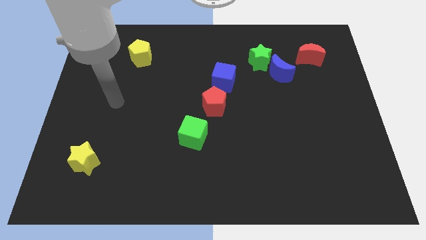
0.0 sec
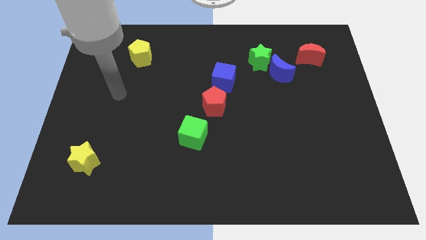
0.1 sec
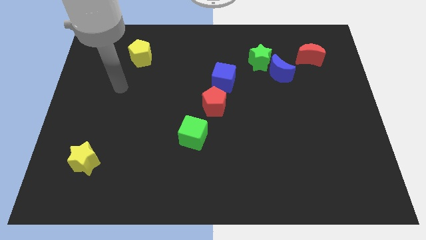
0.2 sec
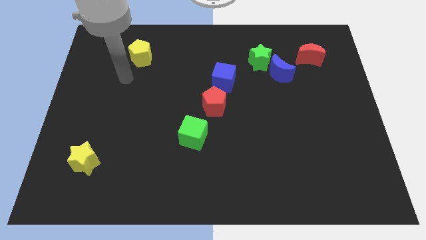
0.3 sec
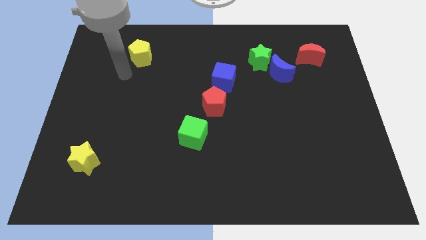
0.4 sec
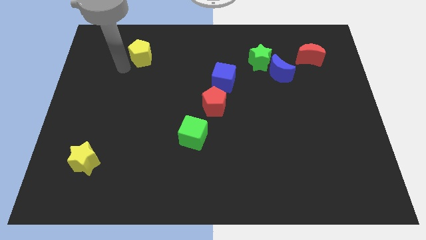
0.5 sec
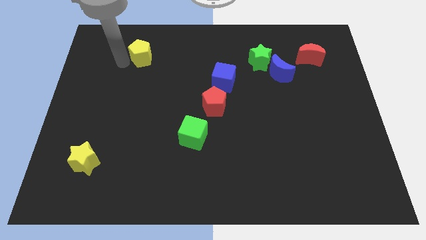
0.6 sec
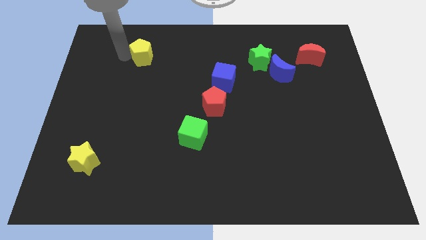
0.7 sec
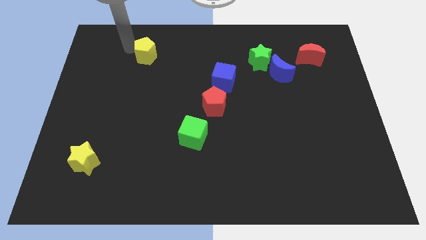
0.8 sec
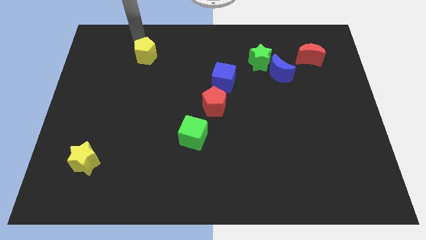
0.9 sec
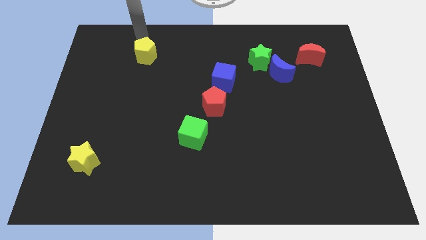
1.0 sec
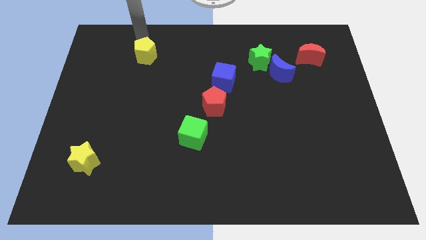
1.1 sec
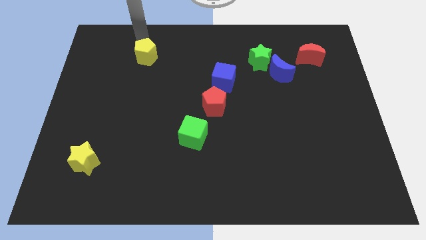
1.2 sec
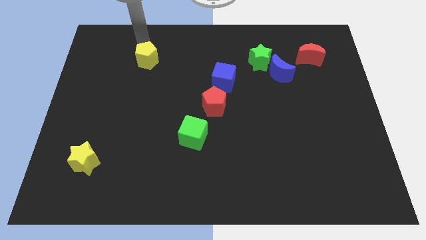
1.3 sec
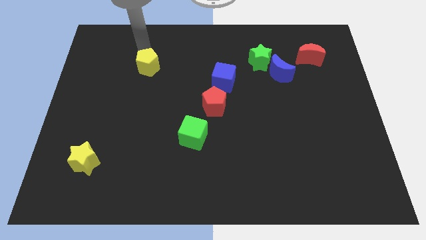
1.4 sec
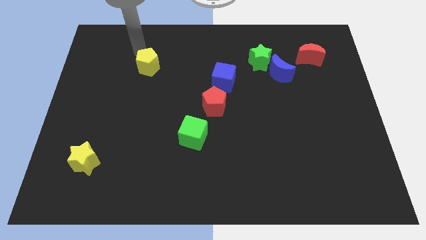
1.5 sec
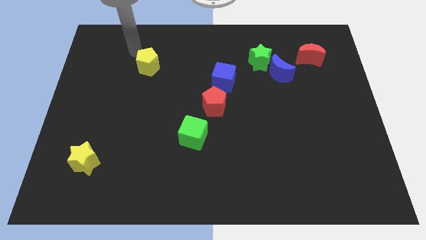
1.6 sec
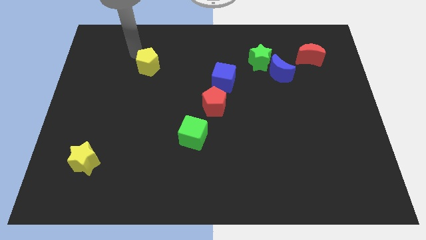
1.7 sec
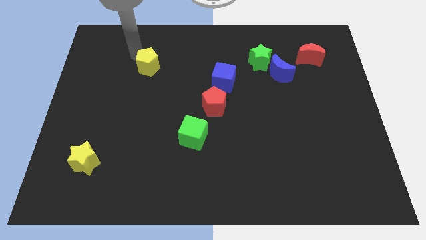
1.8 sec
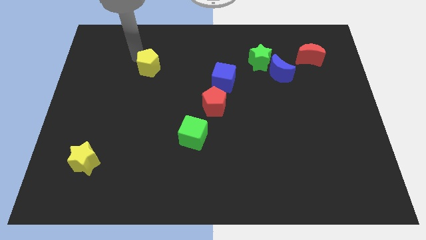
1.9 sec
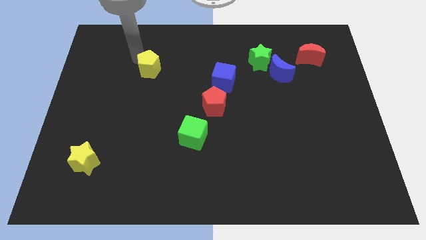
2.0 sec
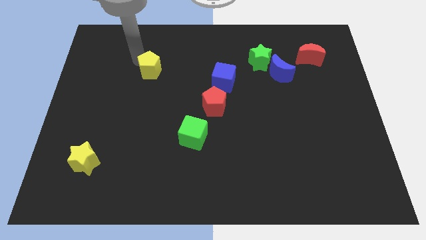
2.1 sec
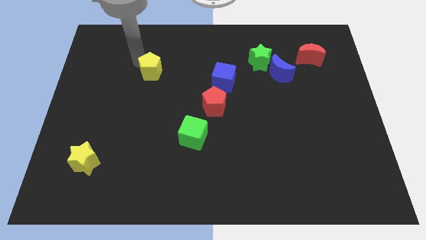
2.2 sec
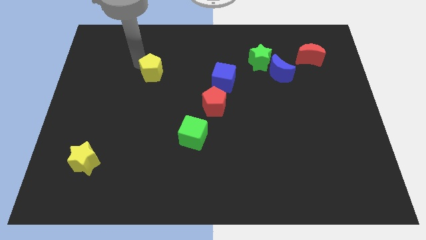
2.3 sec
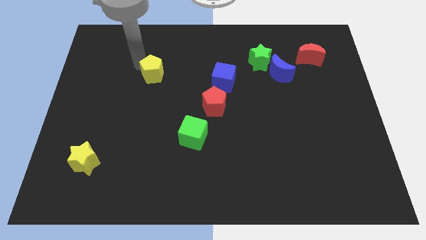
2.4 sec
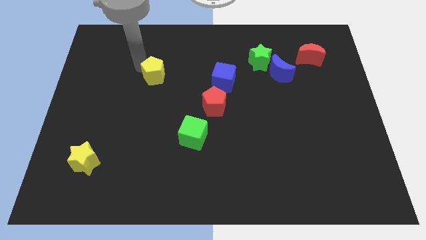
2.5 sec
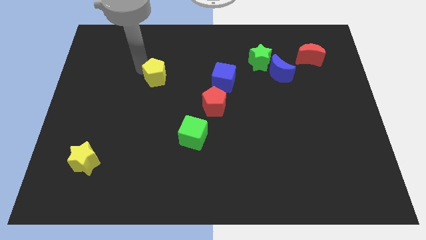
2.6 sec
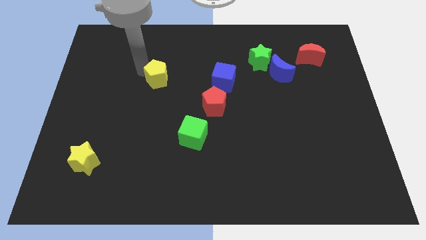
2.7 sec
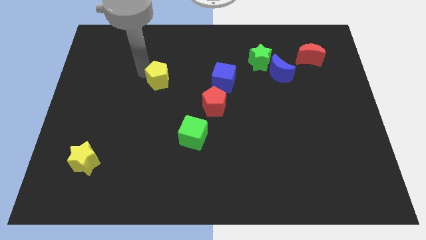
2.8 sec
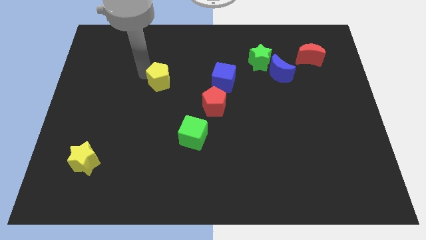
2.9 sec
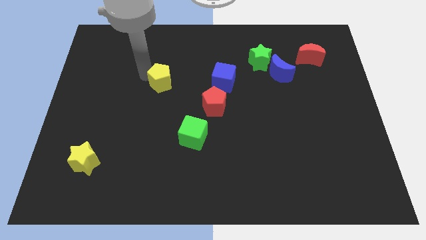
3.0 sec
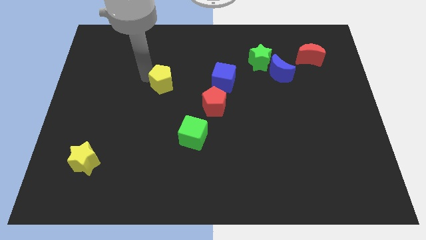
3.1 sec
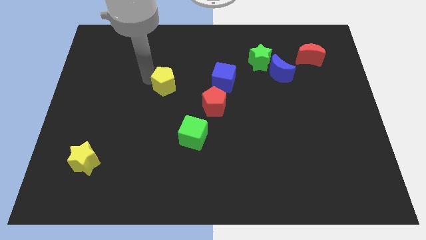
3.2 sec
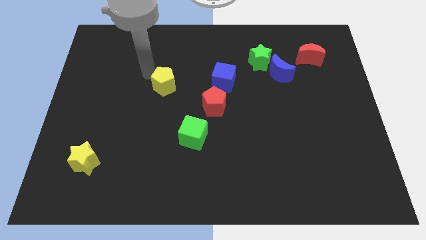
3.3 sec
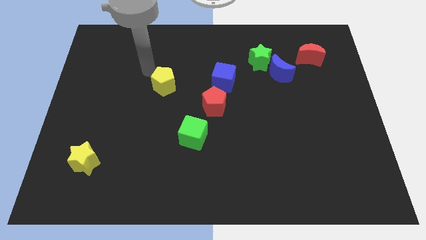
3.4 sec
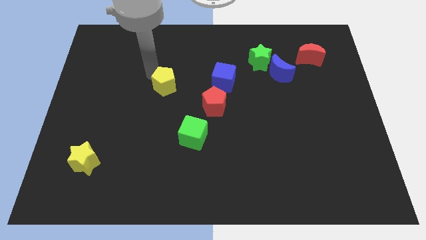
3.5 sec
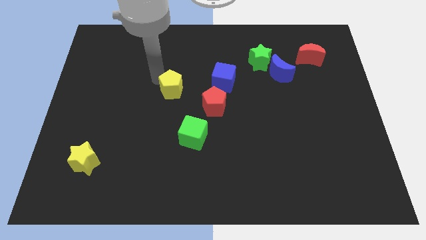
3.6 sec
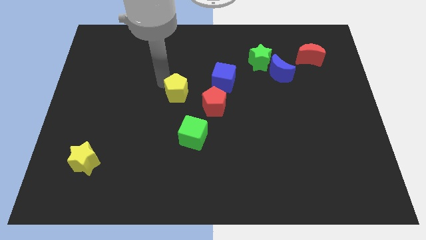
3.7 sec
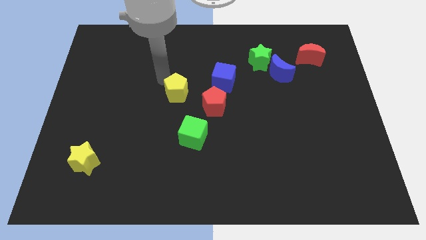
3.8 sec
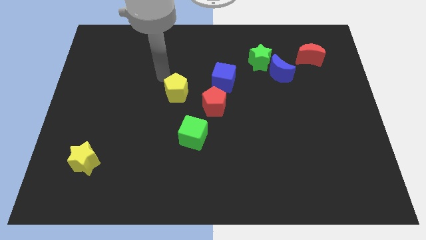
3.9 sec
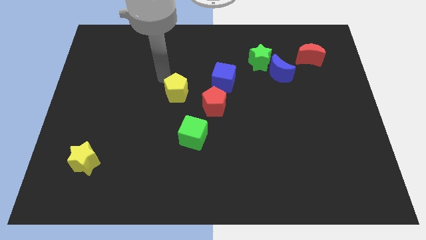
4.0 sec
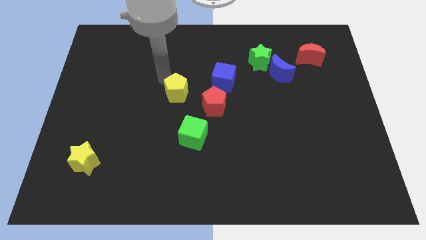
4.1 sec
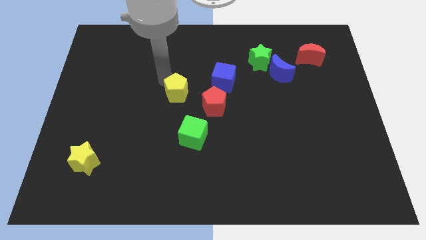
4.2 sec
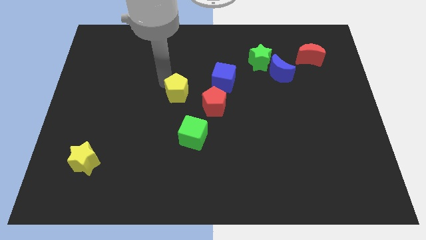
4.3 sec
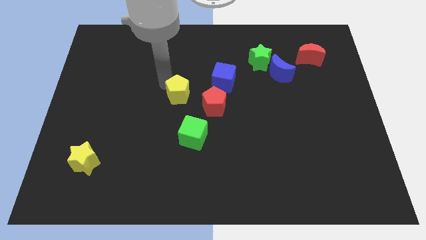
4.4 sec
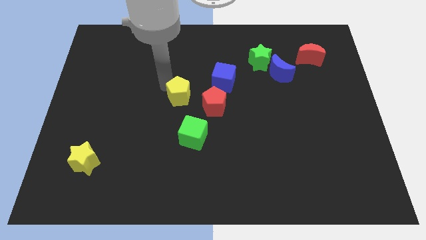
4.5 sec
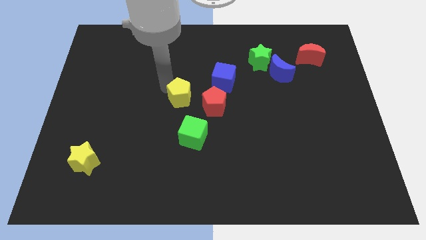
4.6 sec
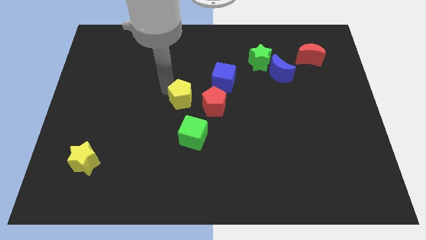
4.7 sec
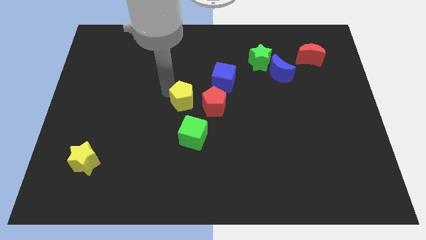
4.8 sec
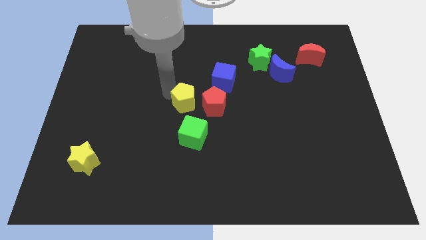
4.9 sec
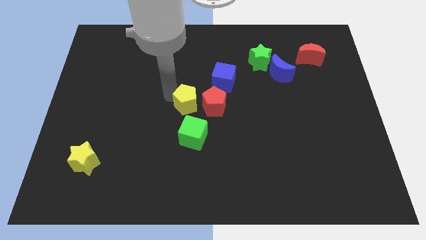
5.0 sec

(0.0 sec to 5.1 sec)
push the yellow pentagon down and right

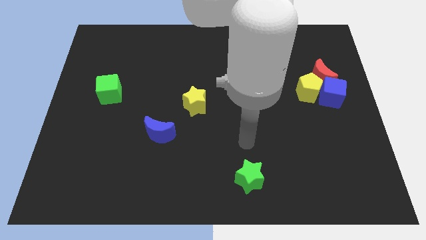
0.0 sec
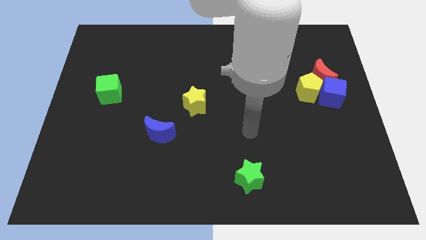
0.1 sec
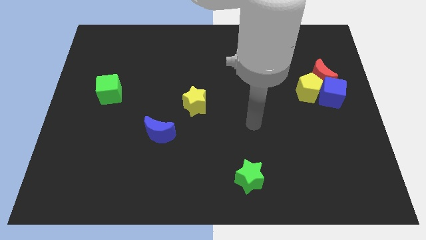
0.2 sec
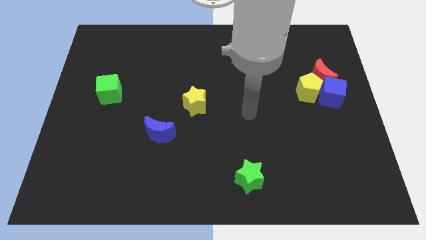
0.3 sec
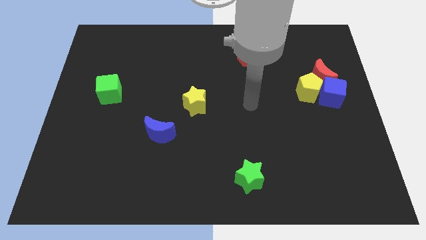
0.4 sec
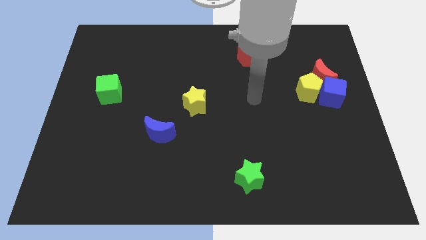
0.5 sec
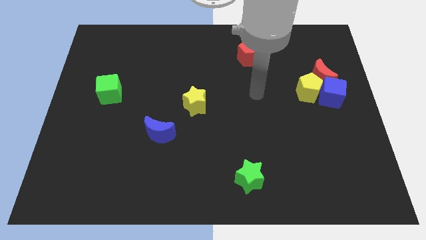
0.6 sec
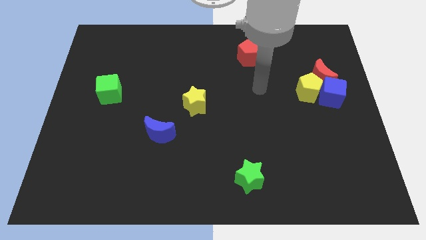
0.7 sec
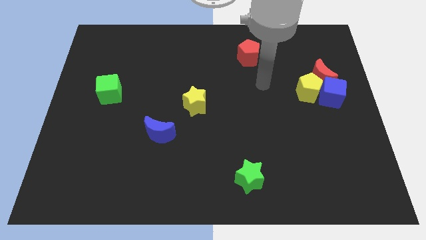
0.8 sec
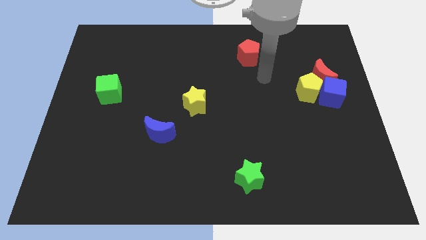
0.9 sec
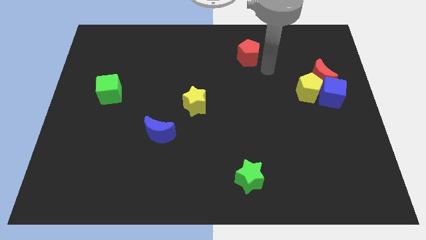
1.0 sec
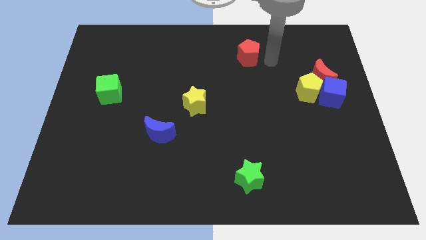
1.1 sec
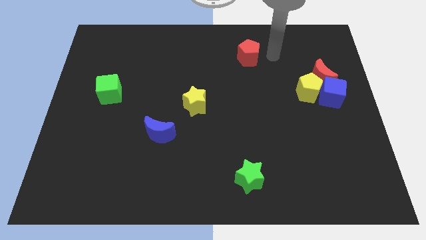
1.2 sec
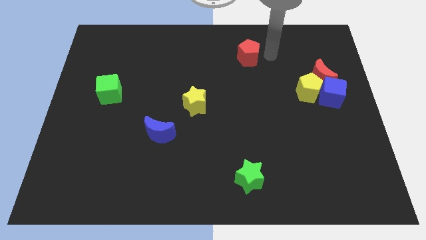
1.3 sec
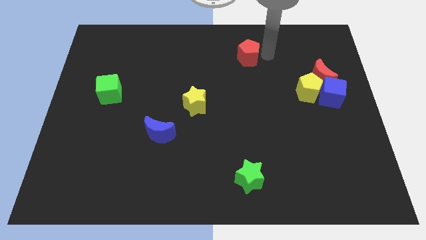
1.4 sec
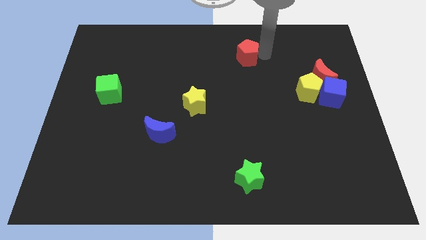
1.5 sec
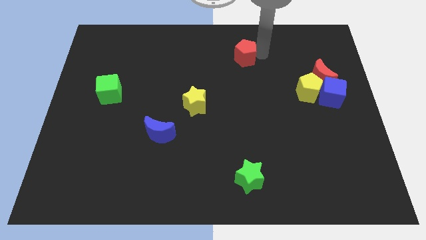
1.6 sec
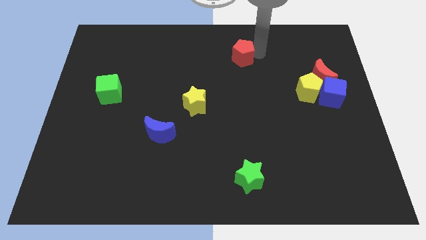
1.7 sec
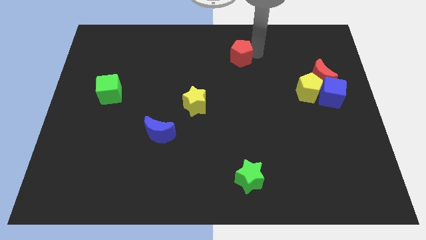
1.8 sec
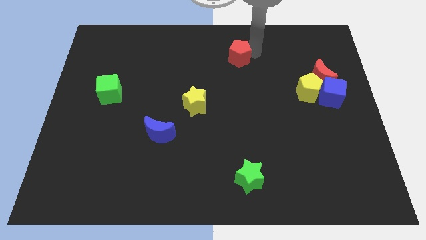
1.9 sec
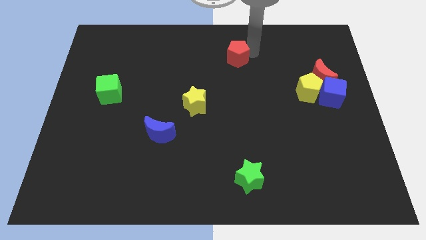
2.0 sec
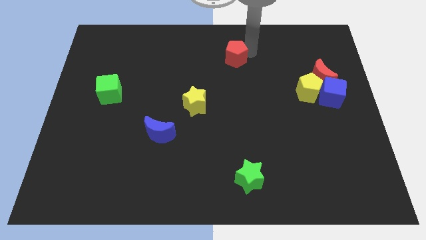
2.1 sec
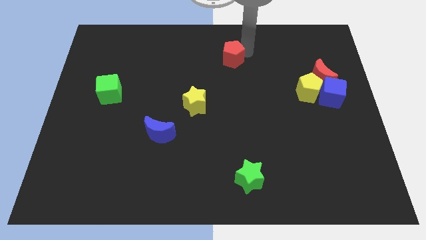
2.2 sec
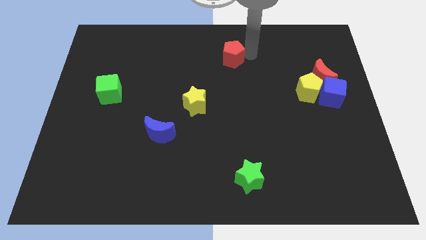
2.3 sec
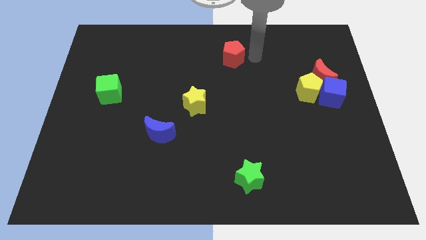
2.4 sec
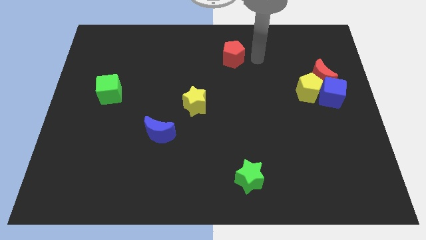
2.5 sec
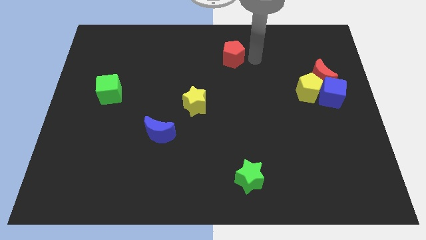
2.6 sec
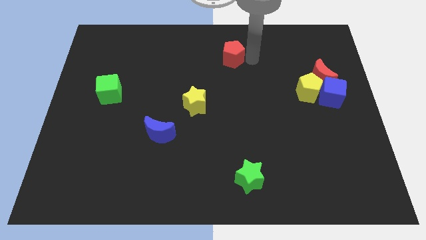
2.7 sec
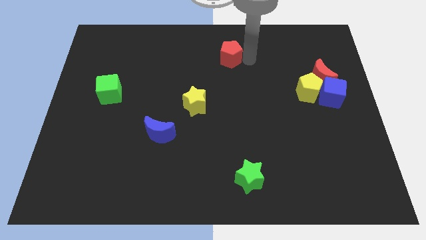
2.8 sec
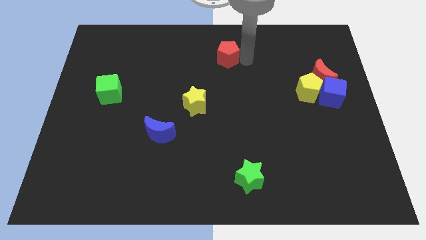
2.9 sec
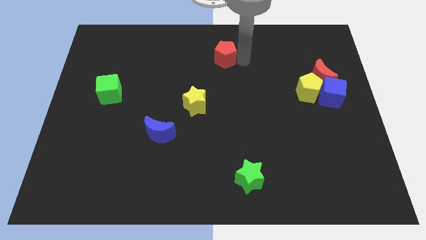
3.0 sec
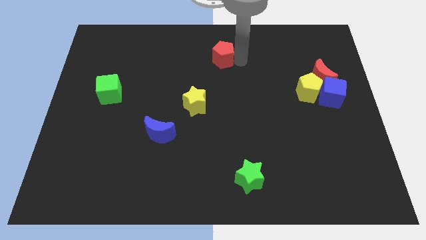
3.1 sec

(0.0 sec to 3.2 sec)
slightly slide the red pentagon to the left

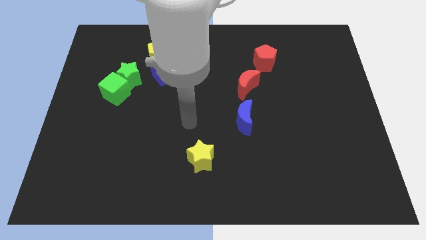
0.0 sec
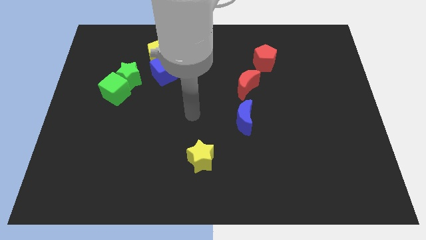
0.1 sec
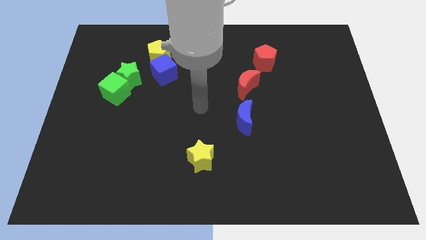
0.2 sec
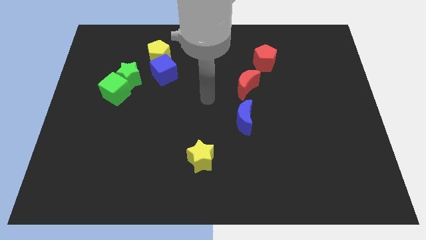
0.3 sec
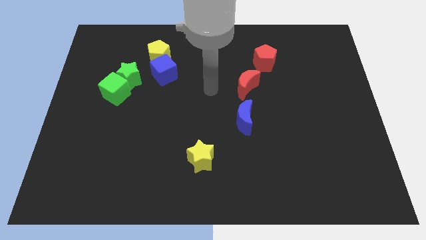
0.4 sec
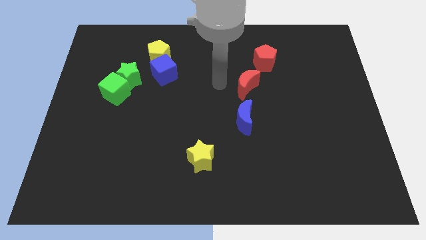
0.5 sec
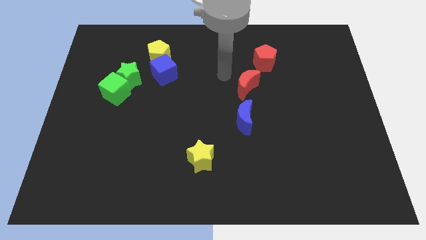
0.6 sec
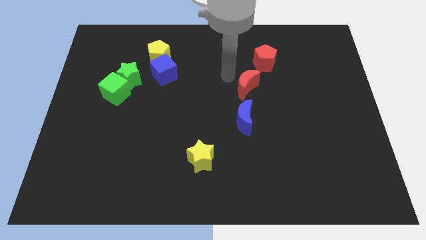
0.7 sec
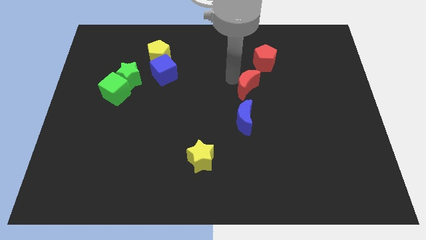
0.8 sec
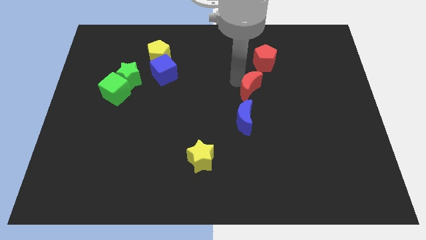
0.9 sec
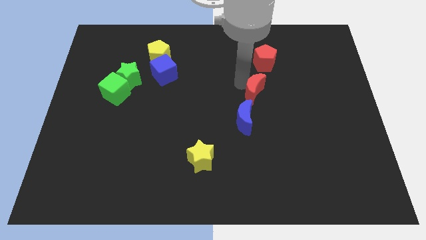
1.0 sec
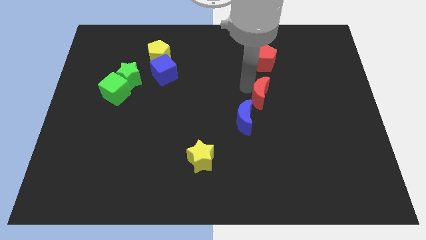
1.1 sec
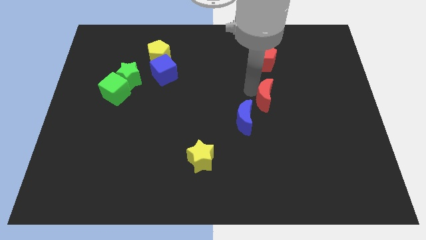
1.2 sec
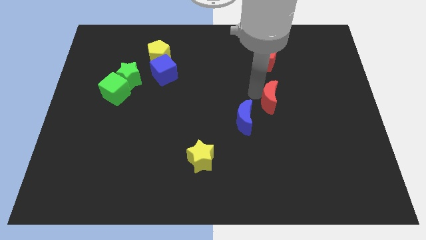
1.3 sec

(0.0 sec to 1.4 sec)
slide the red moon diagonally downwards and right a little
